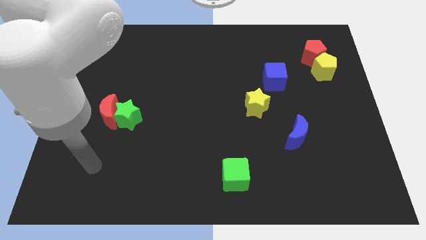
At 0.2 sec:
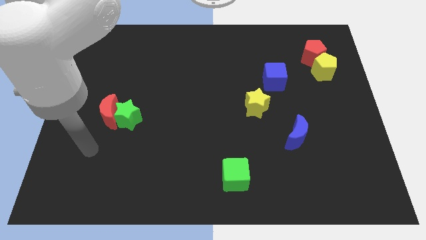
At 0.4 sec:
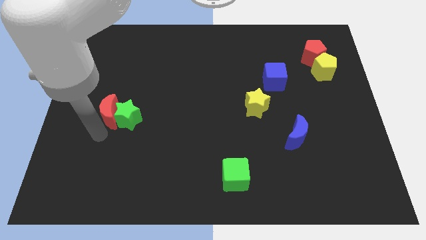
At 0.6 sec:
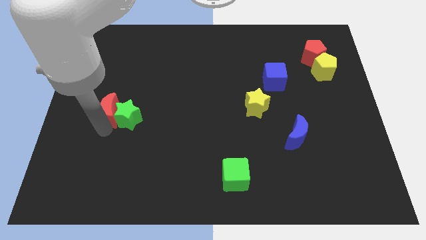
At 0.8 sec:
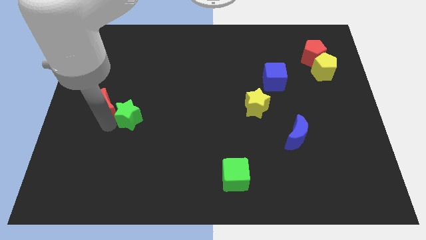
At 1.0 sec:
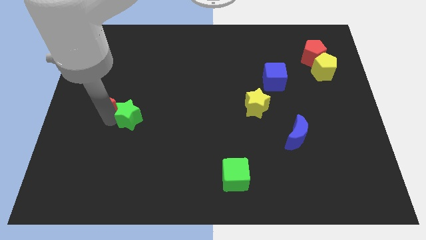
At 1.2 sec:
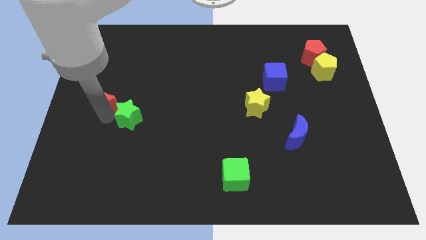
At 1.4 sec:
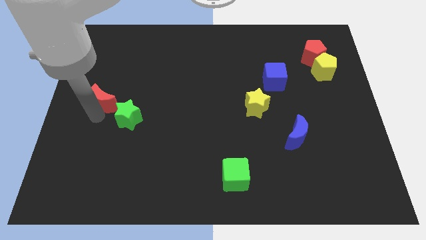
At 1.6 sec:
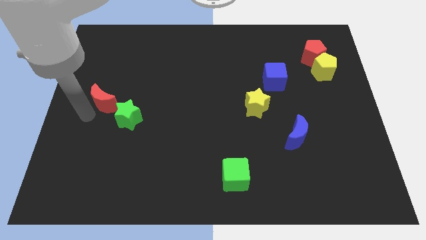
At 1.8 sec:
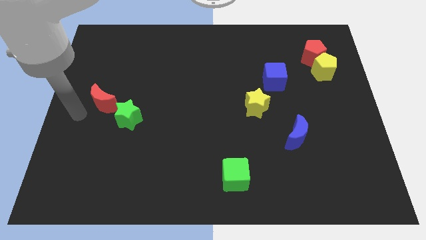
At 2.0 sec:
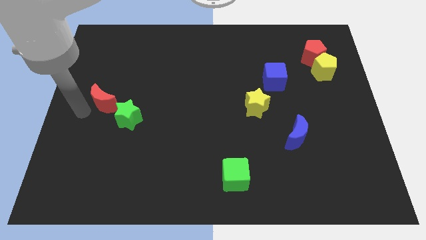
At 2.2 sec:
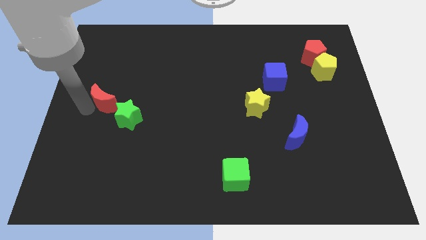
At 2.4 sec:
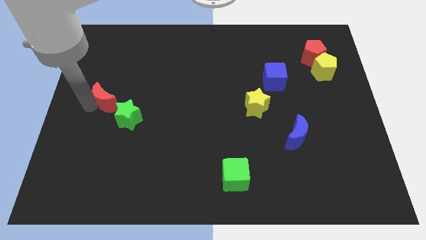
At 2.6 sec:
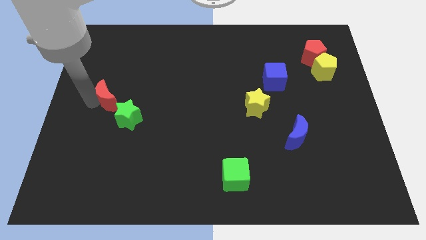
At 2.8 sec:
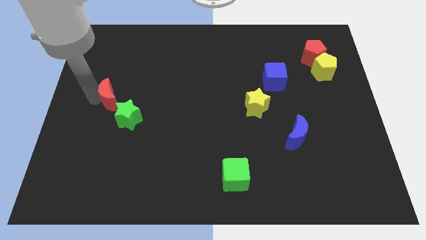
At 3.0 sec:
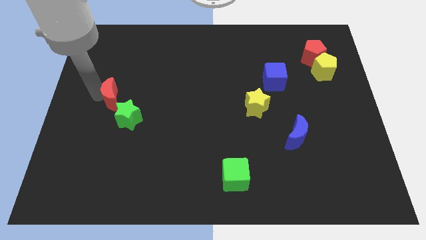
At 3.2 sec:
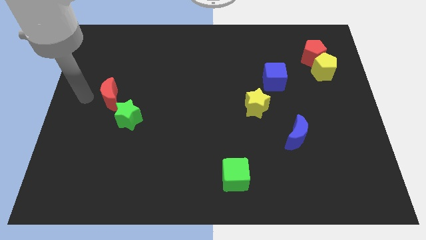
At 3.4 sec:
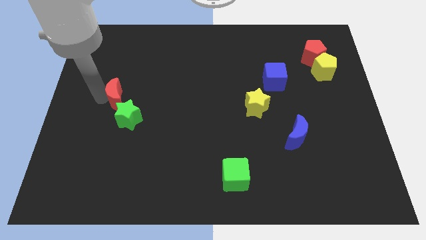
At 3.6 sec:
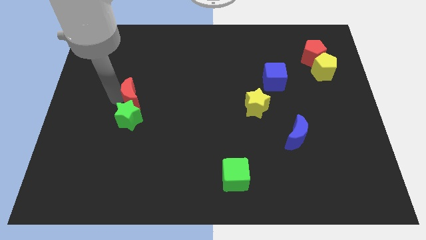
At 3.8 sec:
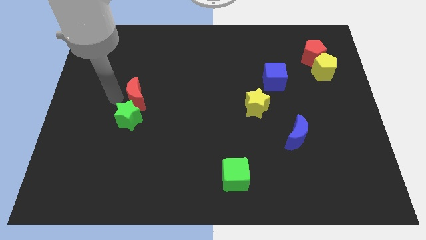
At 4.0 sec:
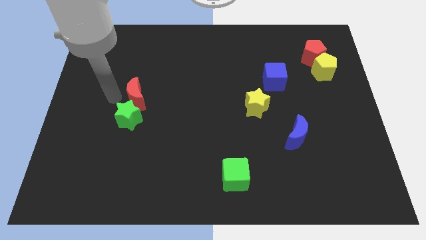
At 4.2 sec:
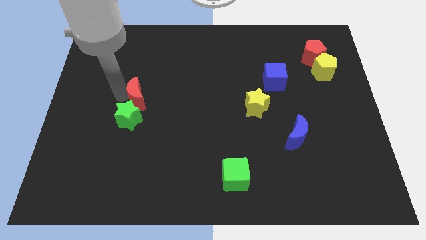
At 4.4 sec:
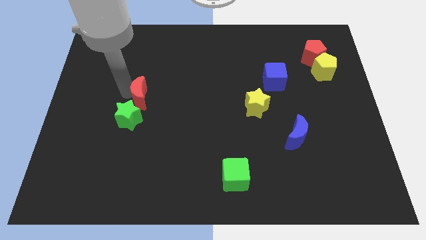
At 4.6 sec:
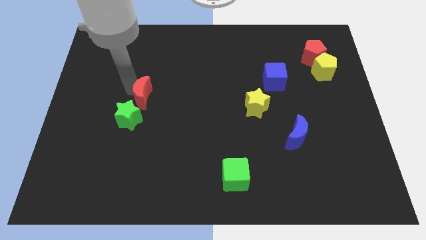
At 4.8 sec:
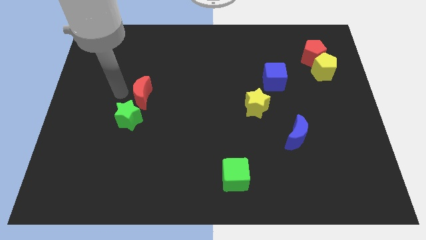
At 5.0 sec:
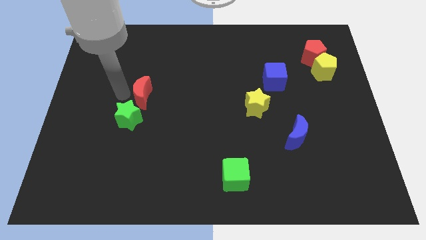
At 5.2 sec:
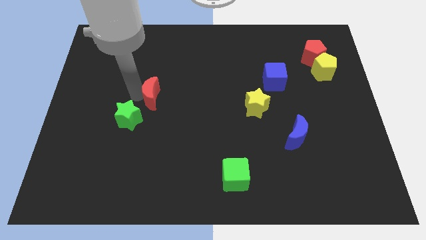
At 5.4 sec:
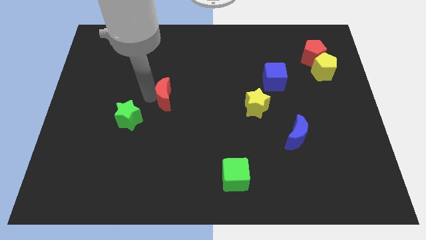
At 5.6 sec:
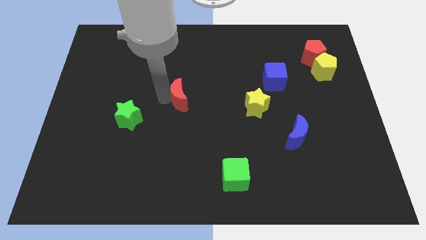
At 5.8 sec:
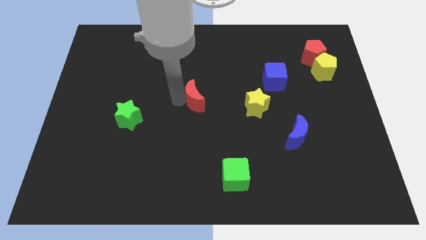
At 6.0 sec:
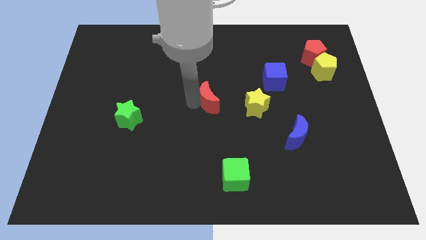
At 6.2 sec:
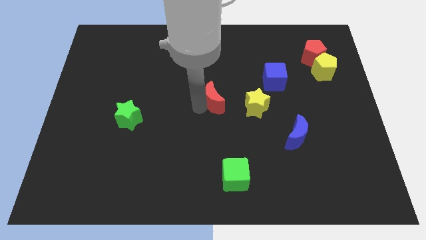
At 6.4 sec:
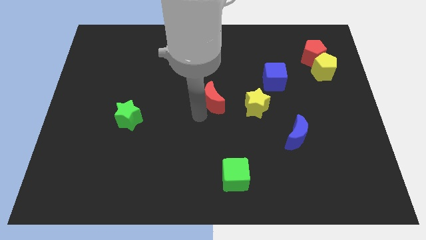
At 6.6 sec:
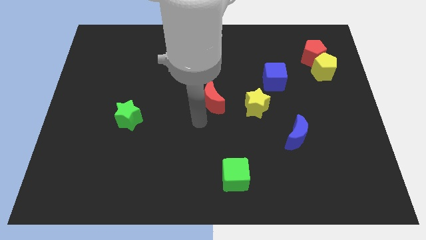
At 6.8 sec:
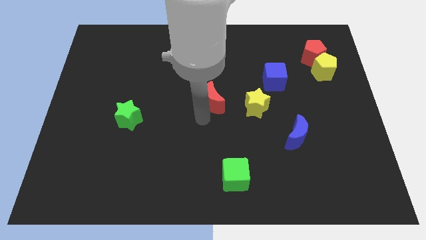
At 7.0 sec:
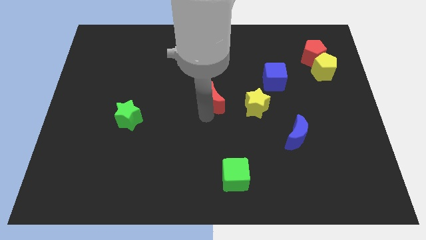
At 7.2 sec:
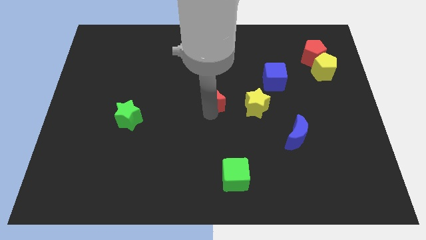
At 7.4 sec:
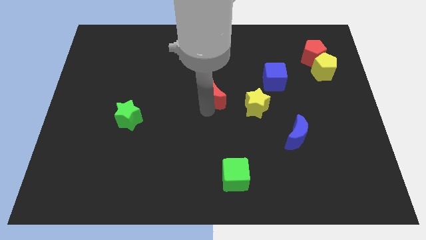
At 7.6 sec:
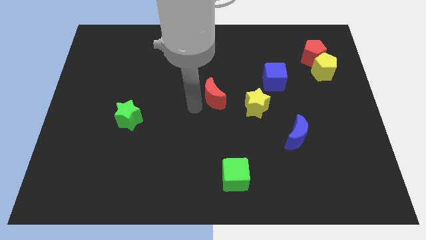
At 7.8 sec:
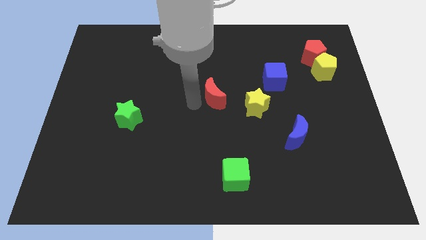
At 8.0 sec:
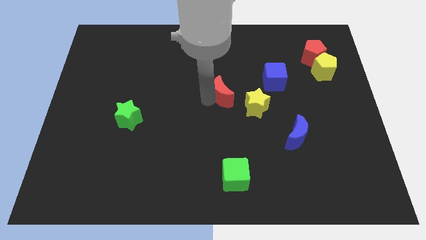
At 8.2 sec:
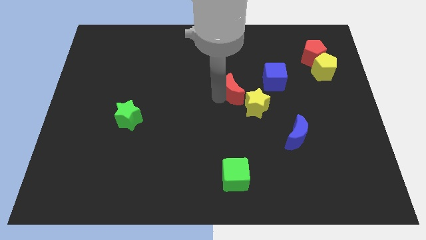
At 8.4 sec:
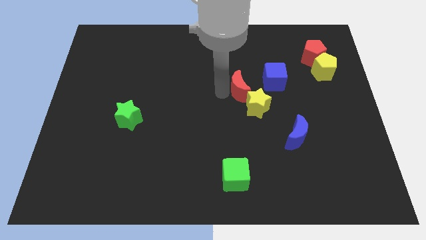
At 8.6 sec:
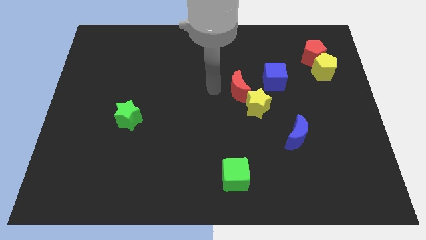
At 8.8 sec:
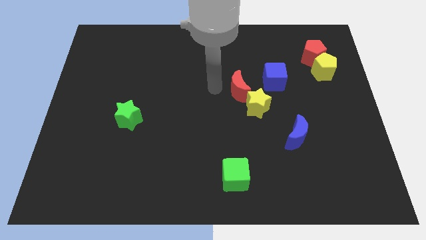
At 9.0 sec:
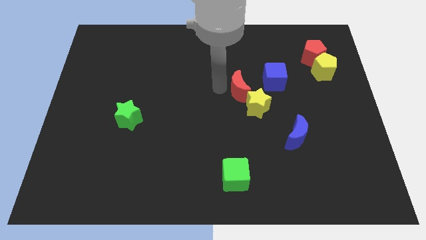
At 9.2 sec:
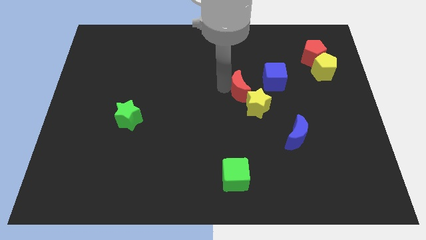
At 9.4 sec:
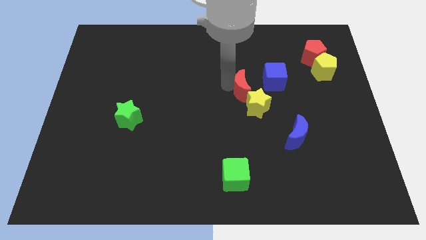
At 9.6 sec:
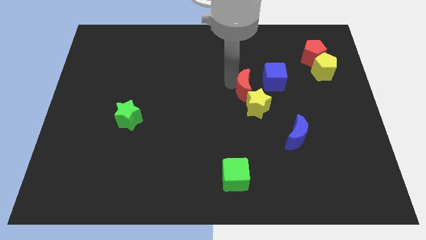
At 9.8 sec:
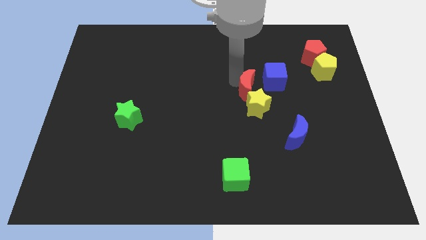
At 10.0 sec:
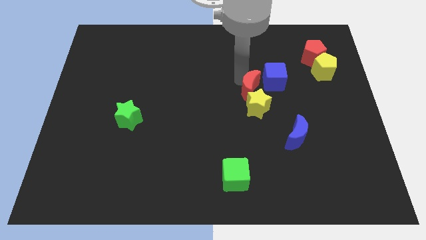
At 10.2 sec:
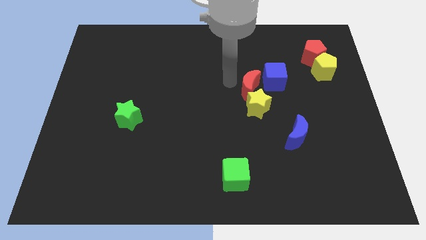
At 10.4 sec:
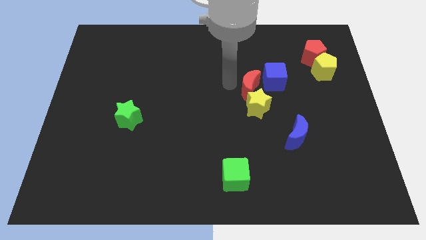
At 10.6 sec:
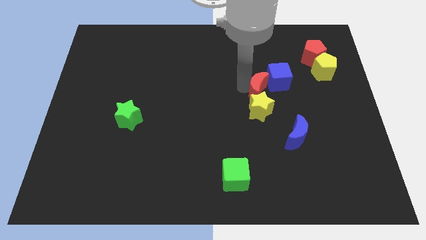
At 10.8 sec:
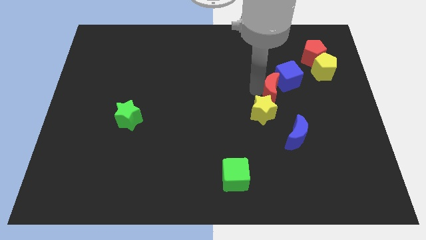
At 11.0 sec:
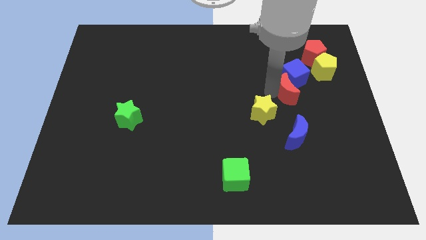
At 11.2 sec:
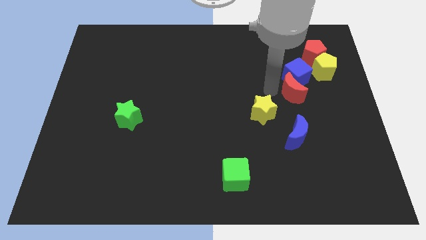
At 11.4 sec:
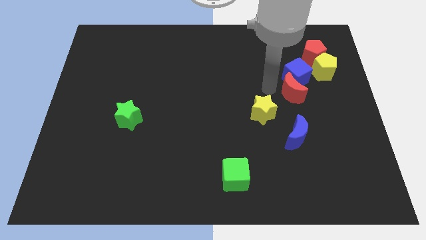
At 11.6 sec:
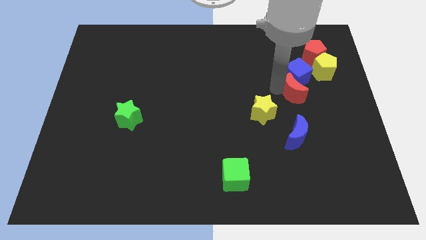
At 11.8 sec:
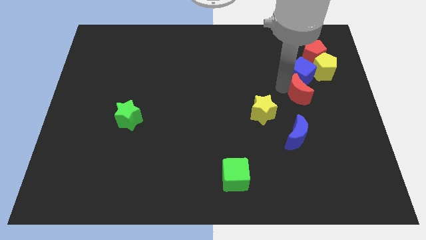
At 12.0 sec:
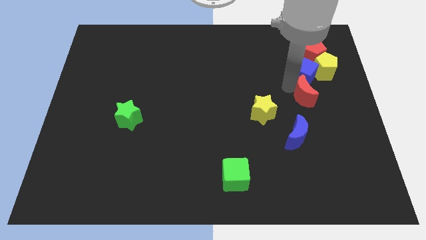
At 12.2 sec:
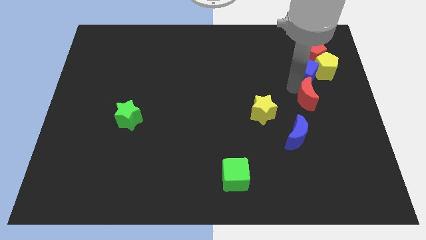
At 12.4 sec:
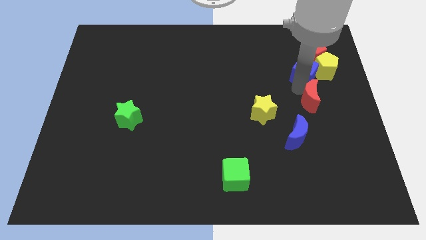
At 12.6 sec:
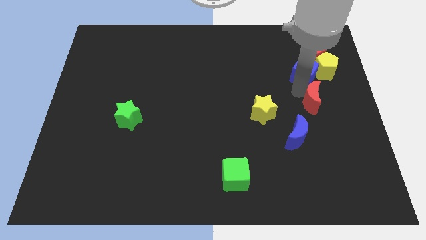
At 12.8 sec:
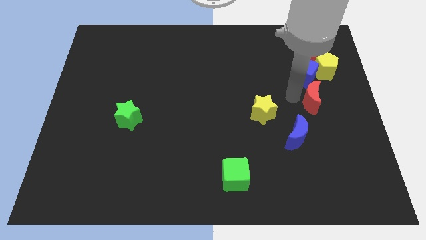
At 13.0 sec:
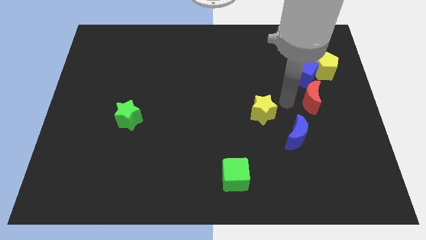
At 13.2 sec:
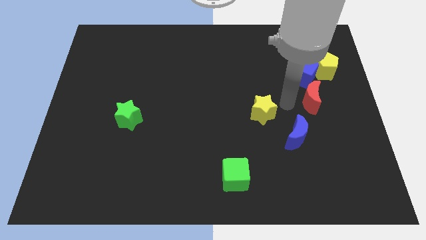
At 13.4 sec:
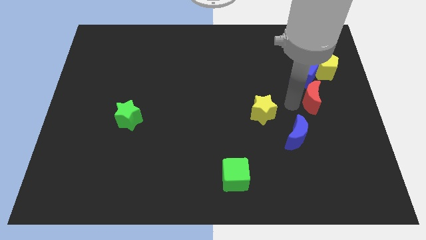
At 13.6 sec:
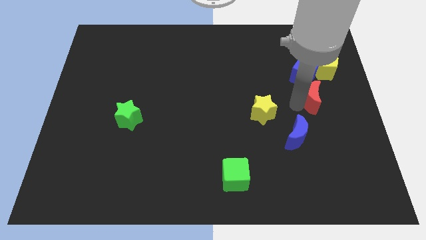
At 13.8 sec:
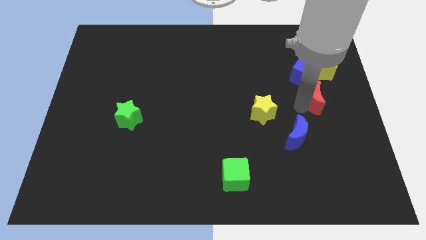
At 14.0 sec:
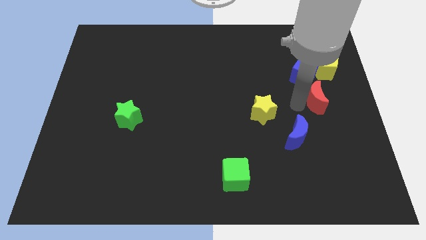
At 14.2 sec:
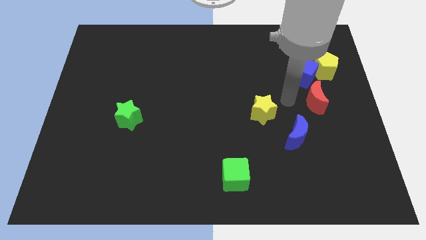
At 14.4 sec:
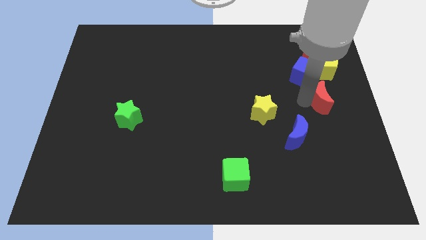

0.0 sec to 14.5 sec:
move the red moon to the center right
